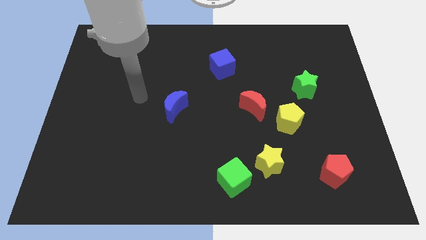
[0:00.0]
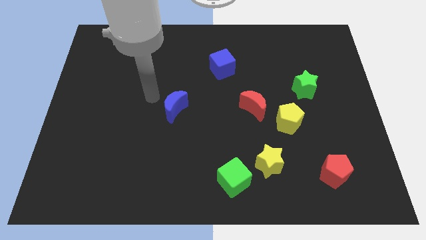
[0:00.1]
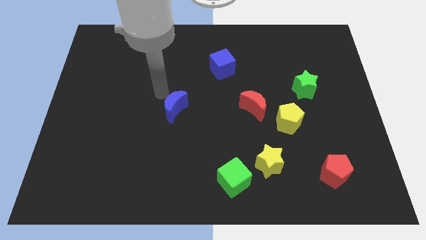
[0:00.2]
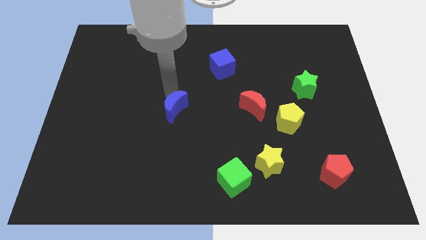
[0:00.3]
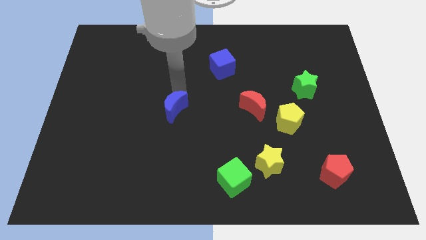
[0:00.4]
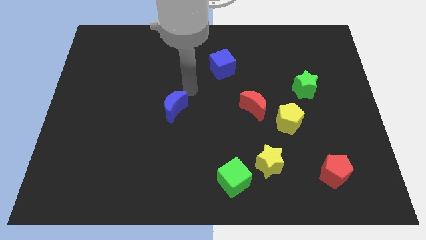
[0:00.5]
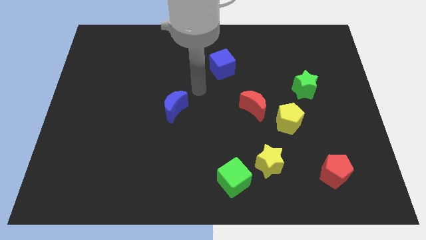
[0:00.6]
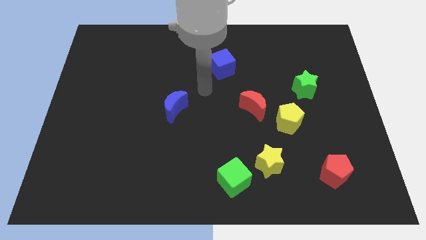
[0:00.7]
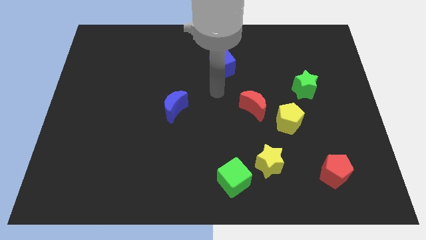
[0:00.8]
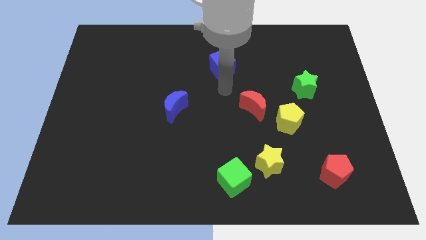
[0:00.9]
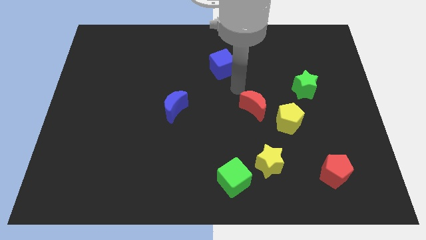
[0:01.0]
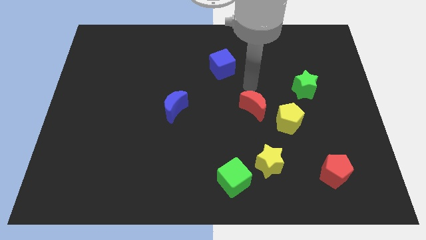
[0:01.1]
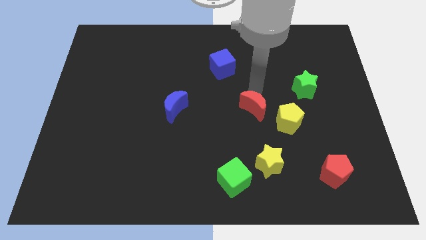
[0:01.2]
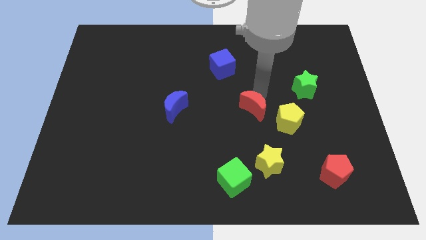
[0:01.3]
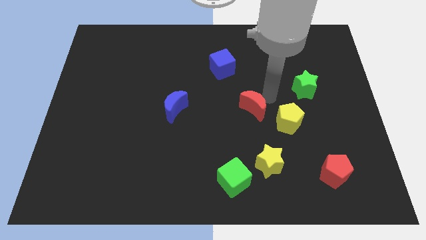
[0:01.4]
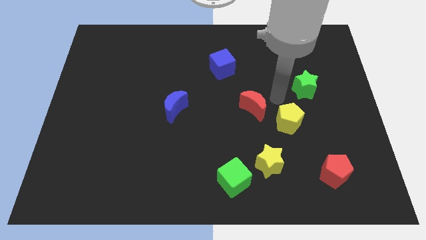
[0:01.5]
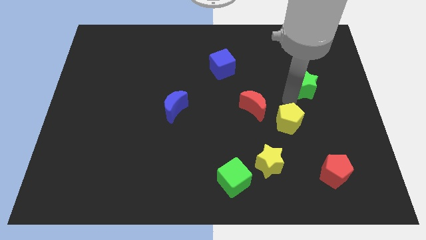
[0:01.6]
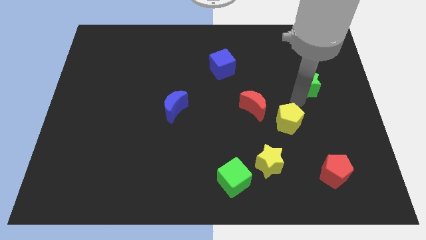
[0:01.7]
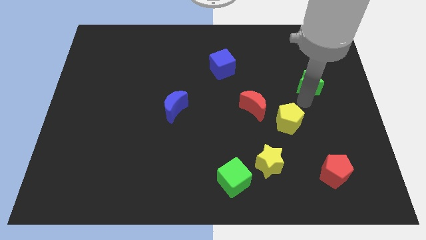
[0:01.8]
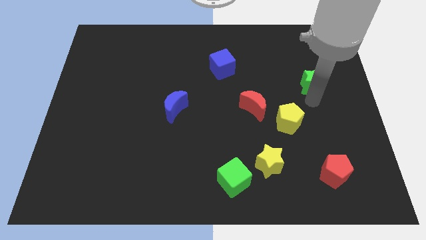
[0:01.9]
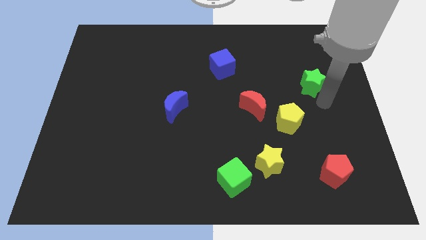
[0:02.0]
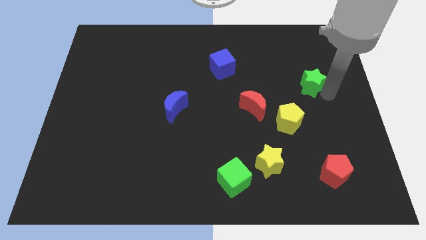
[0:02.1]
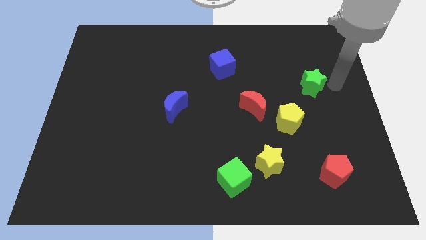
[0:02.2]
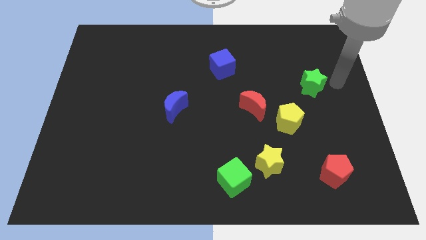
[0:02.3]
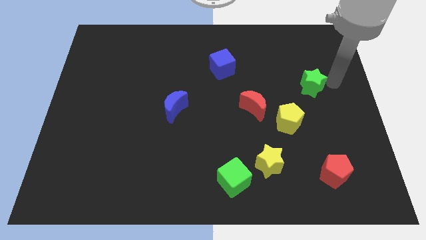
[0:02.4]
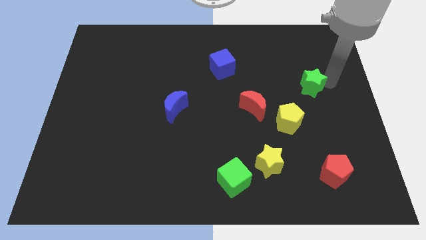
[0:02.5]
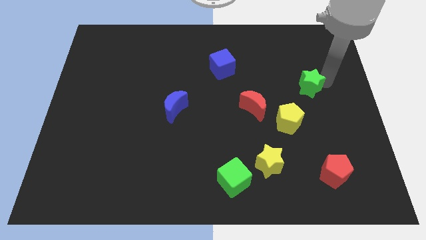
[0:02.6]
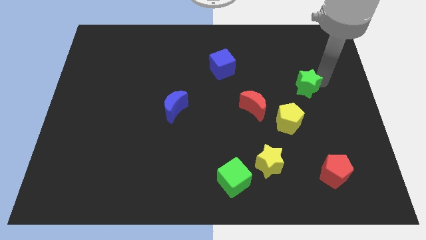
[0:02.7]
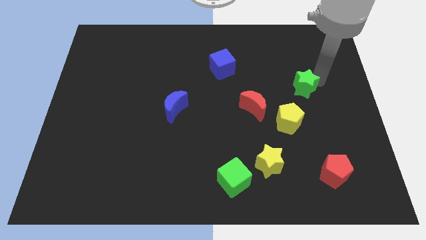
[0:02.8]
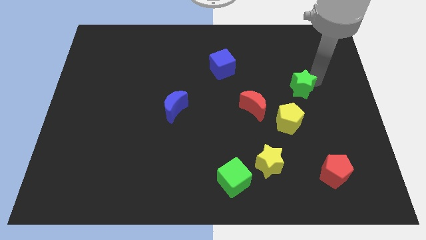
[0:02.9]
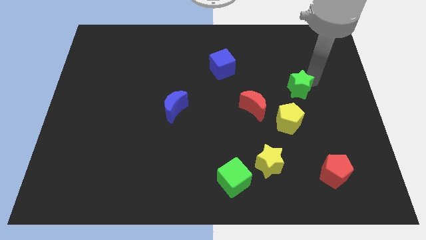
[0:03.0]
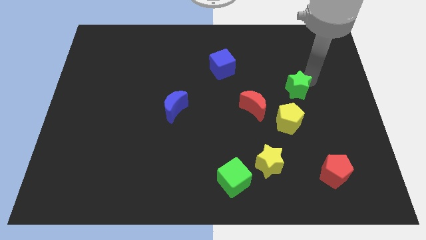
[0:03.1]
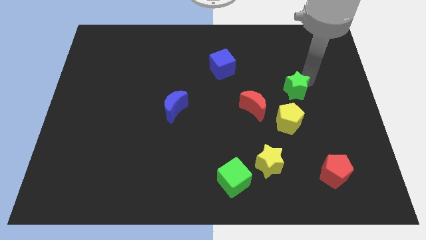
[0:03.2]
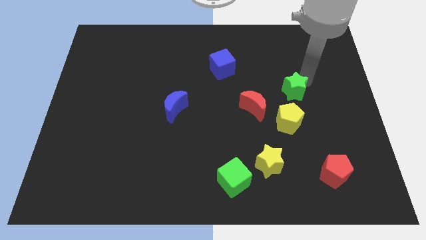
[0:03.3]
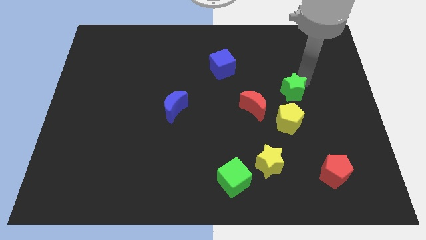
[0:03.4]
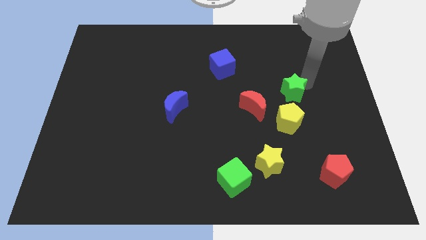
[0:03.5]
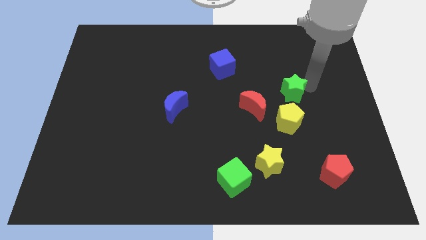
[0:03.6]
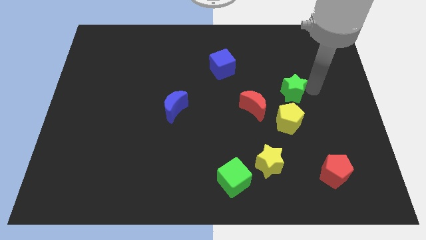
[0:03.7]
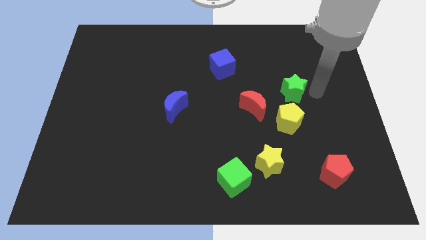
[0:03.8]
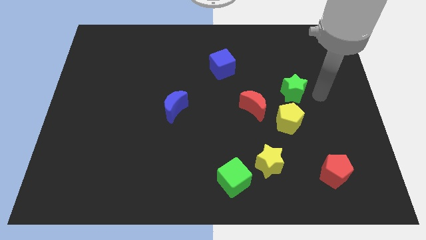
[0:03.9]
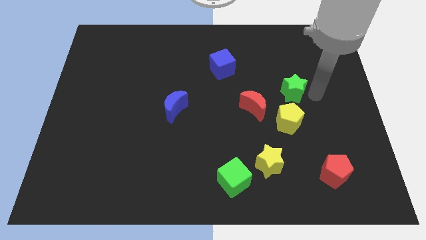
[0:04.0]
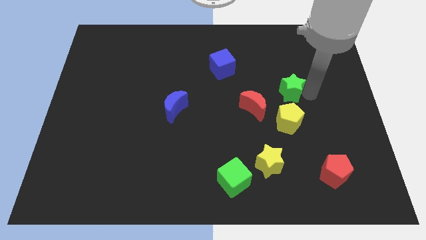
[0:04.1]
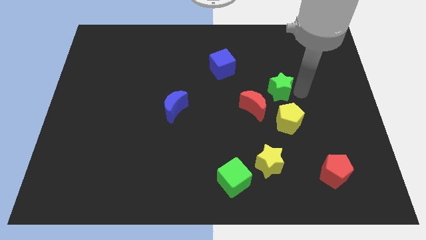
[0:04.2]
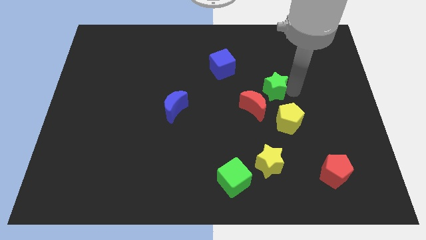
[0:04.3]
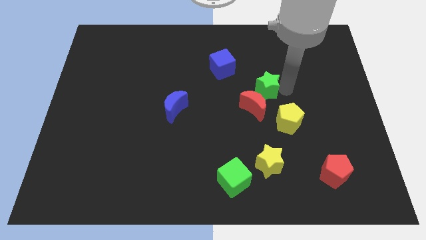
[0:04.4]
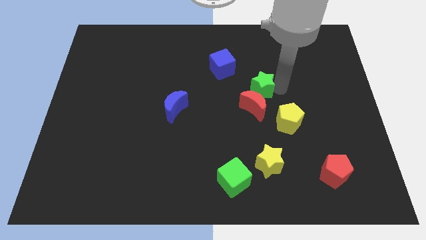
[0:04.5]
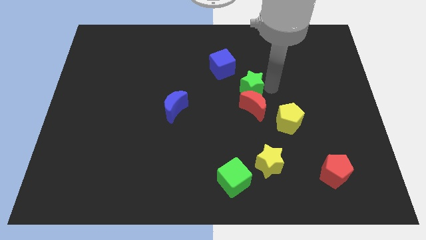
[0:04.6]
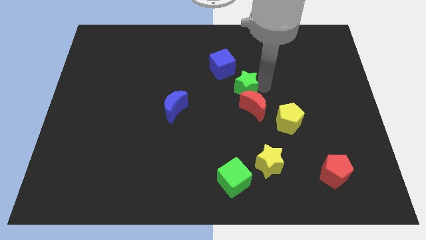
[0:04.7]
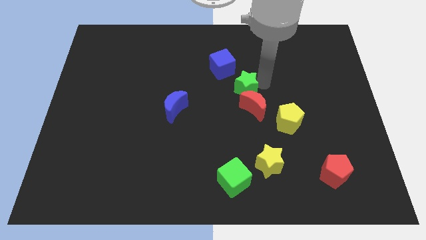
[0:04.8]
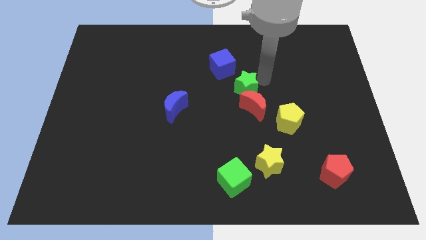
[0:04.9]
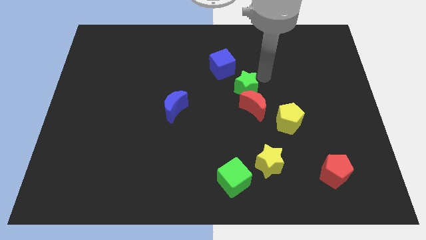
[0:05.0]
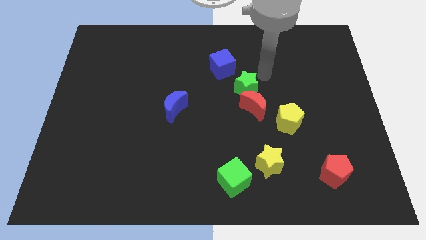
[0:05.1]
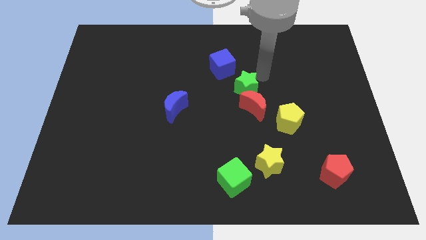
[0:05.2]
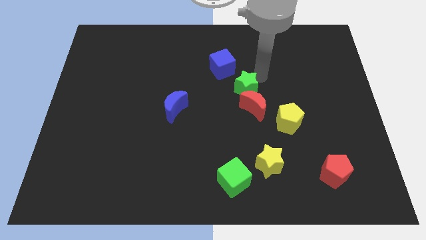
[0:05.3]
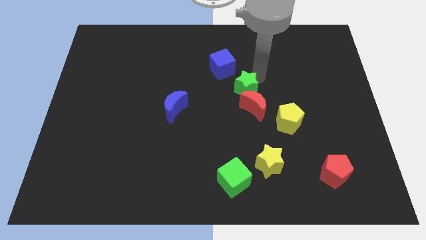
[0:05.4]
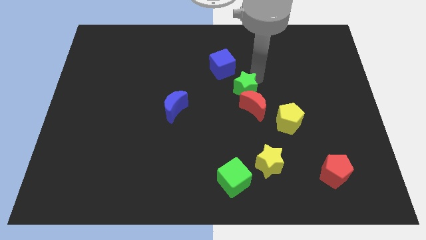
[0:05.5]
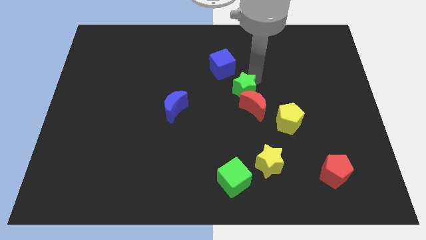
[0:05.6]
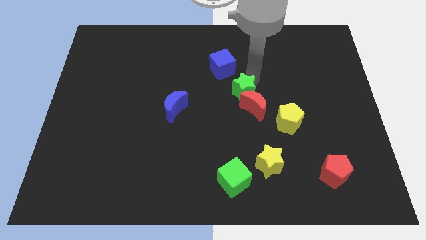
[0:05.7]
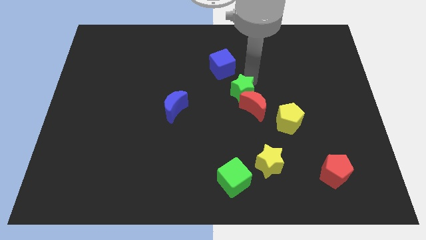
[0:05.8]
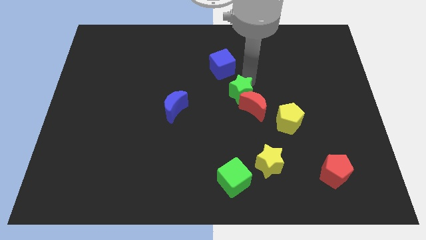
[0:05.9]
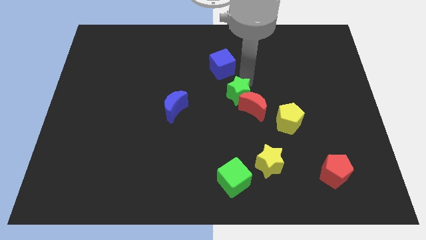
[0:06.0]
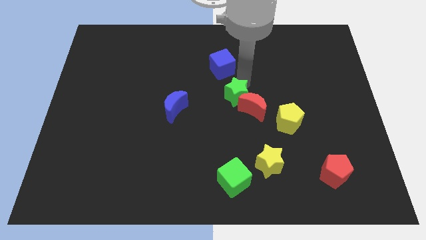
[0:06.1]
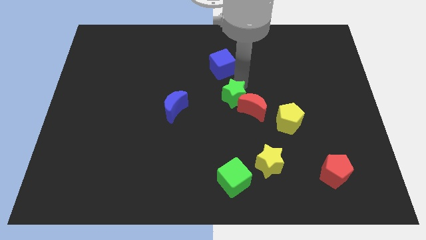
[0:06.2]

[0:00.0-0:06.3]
slide the green star to the right of the blue moon

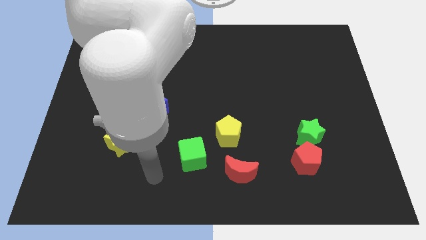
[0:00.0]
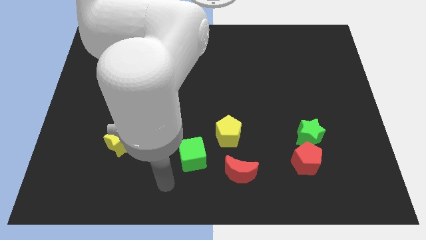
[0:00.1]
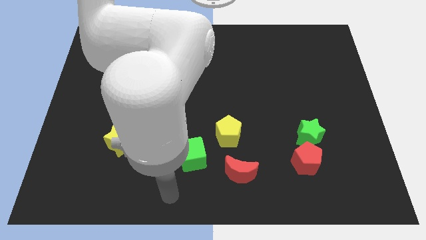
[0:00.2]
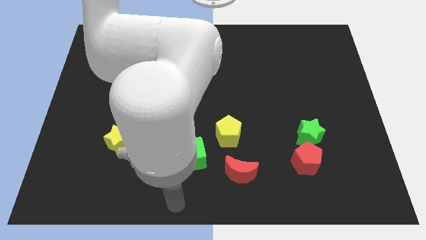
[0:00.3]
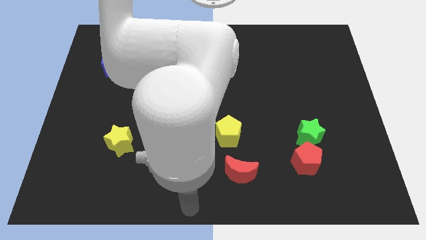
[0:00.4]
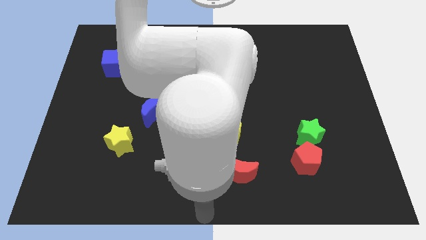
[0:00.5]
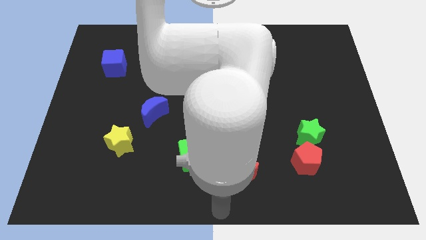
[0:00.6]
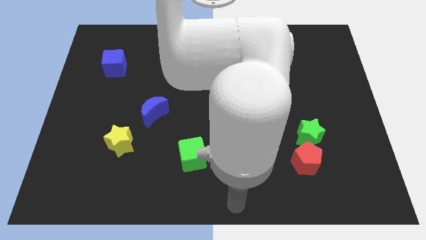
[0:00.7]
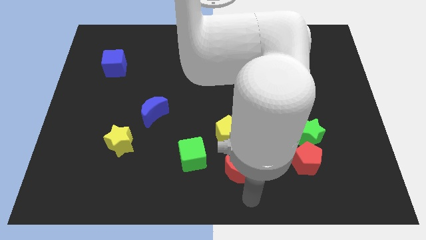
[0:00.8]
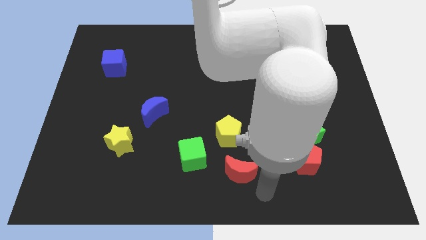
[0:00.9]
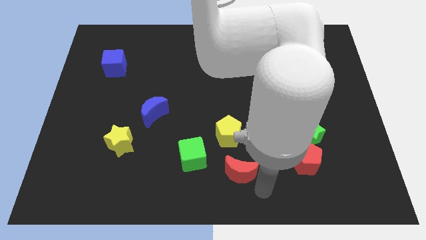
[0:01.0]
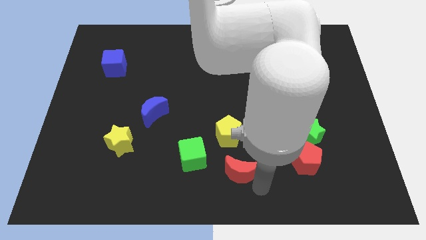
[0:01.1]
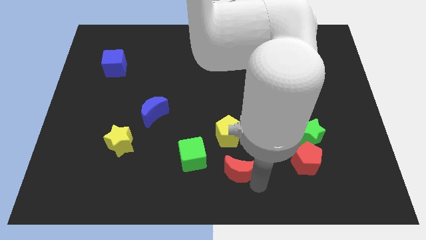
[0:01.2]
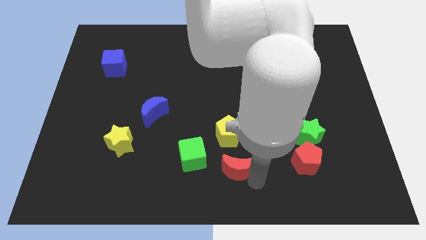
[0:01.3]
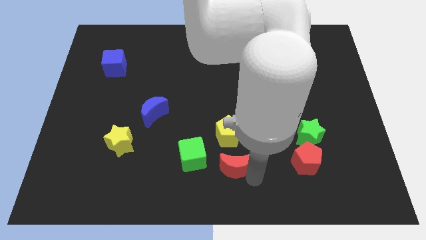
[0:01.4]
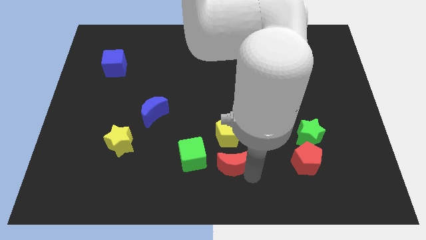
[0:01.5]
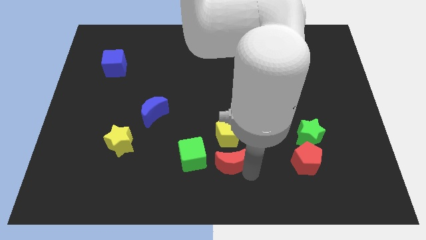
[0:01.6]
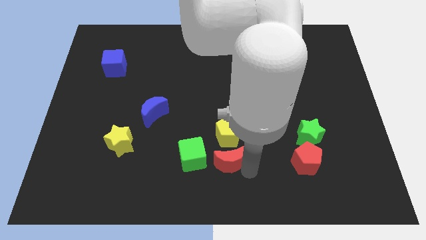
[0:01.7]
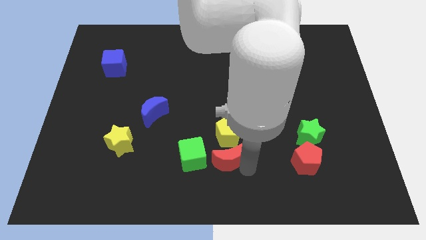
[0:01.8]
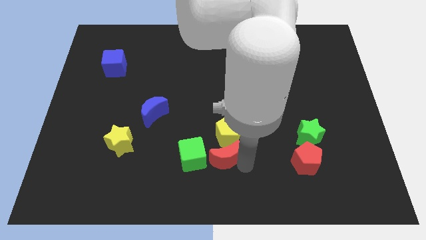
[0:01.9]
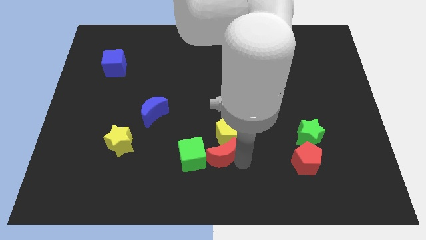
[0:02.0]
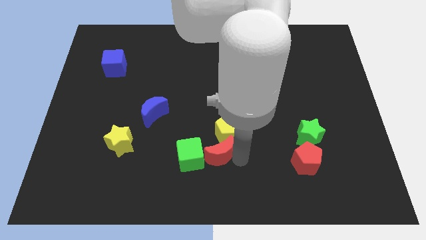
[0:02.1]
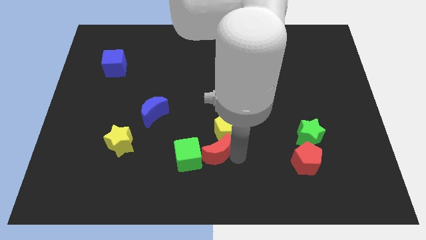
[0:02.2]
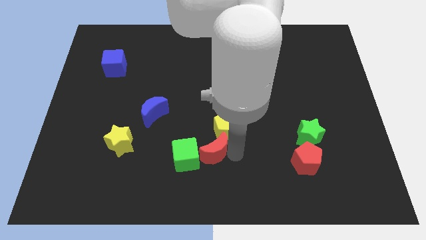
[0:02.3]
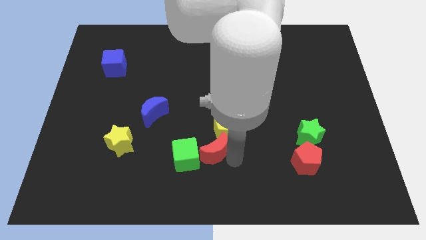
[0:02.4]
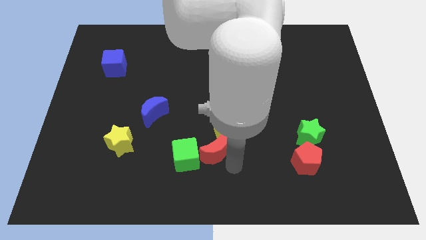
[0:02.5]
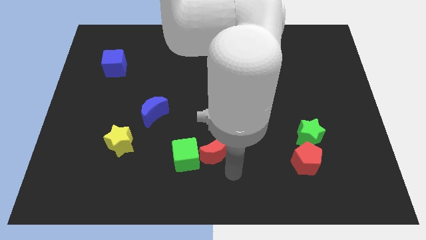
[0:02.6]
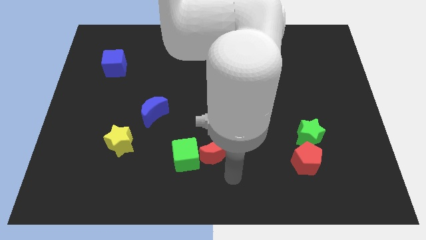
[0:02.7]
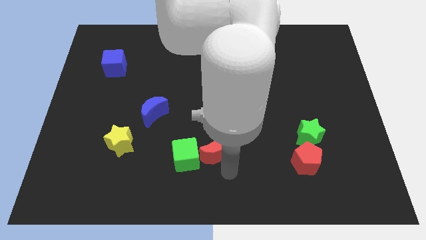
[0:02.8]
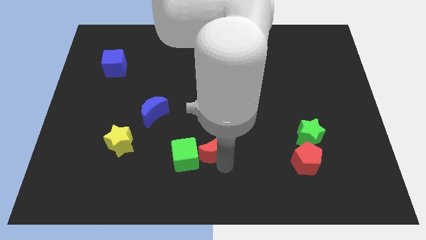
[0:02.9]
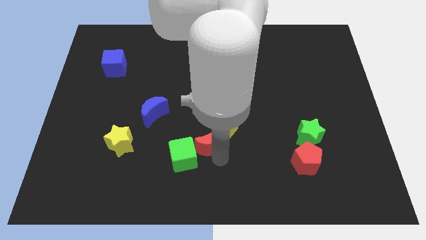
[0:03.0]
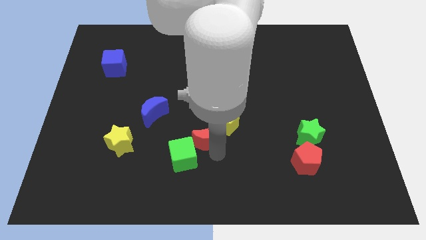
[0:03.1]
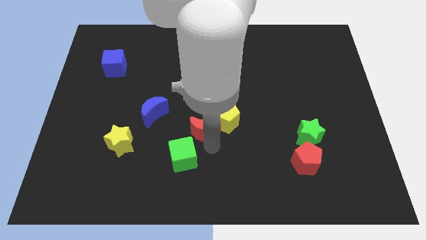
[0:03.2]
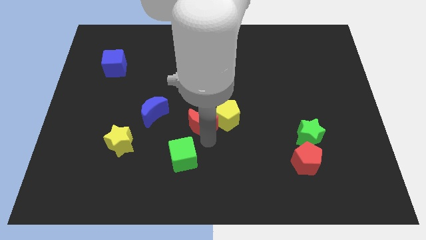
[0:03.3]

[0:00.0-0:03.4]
slide the red moon to the right side of the blue moon
